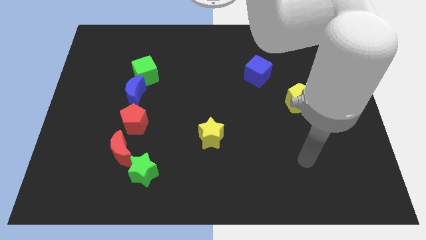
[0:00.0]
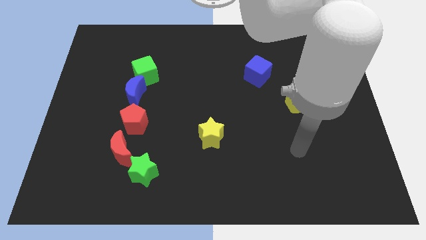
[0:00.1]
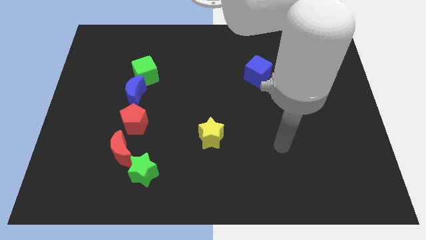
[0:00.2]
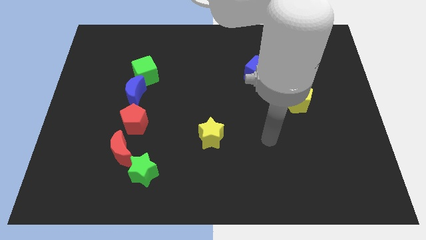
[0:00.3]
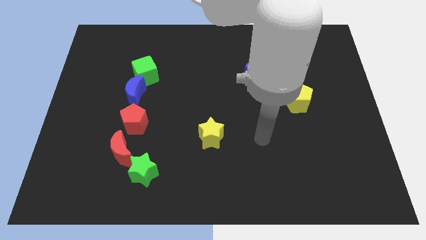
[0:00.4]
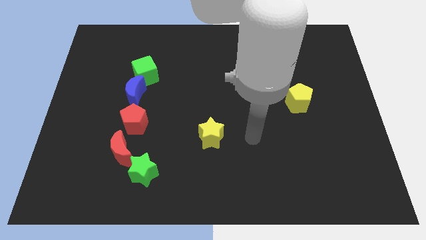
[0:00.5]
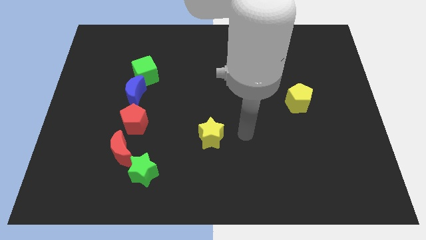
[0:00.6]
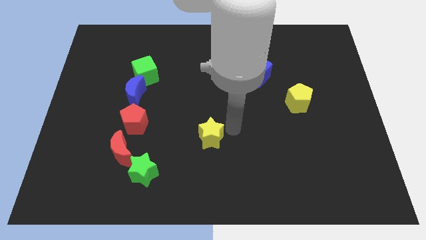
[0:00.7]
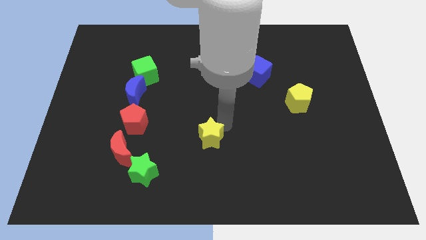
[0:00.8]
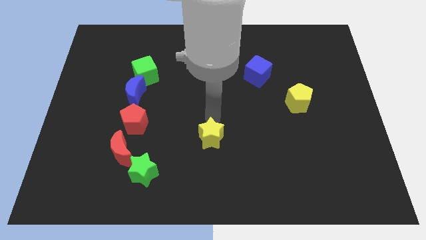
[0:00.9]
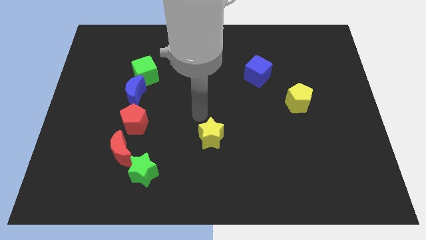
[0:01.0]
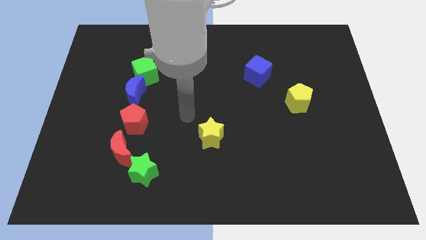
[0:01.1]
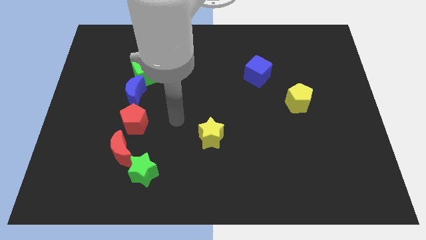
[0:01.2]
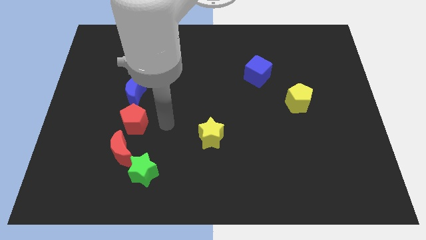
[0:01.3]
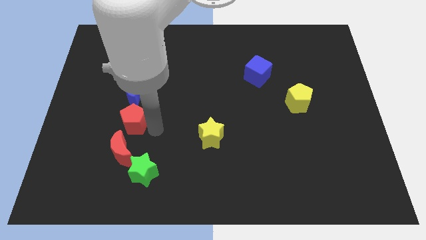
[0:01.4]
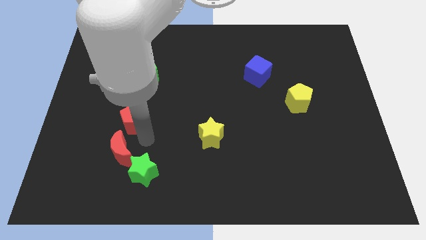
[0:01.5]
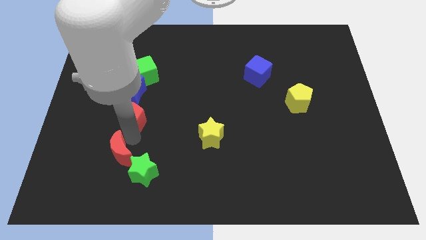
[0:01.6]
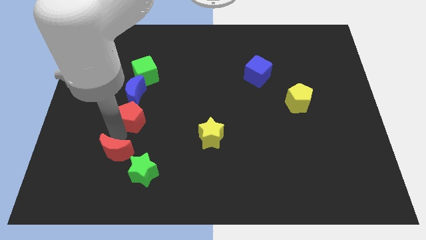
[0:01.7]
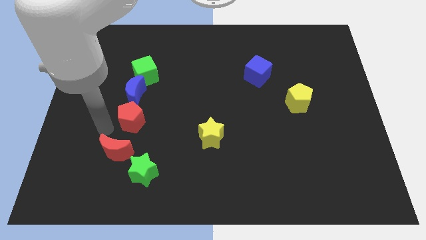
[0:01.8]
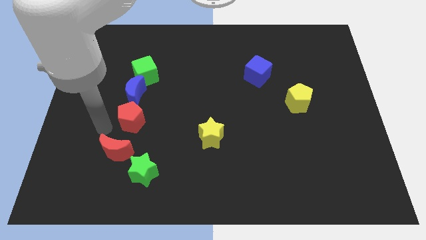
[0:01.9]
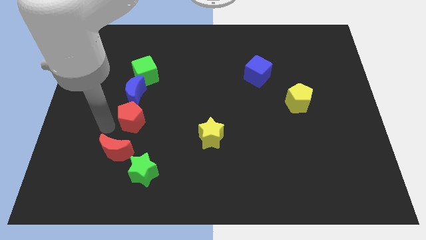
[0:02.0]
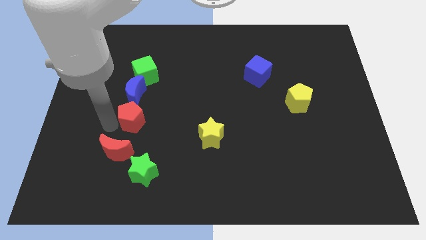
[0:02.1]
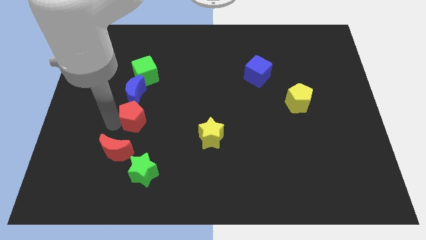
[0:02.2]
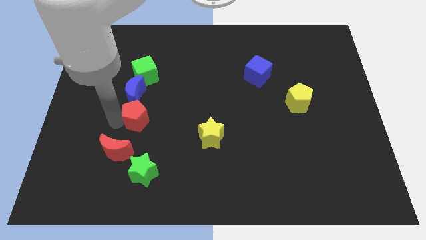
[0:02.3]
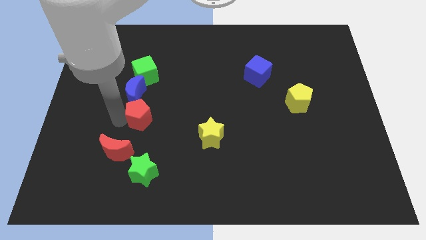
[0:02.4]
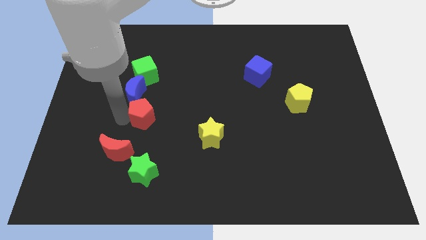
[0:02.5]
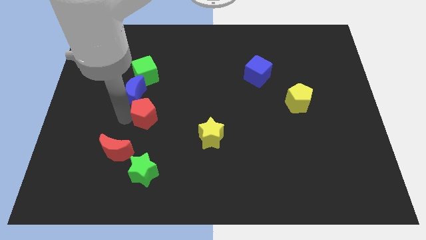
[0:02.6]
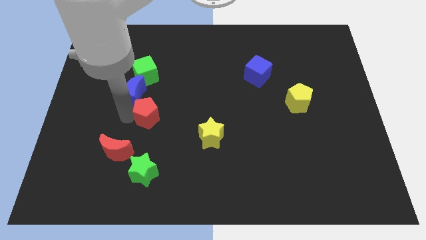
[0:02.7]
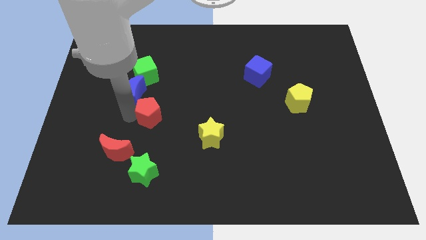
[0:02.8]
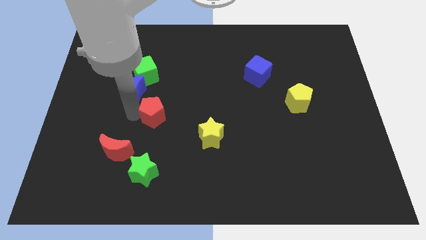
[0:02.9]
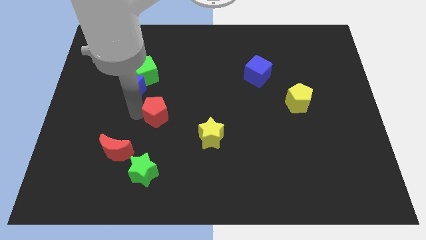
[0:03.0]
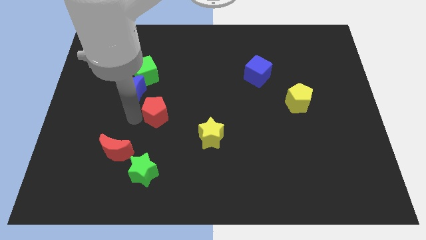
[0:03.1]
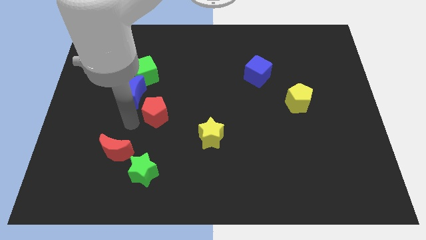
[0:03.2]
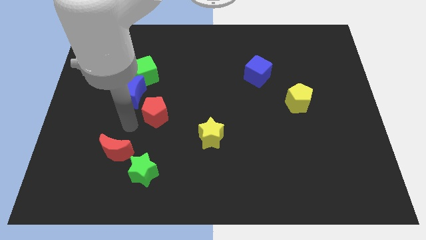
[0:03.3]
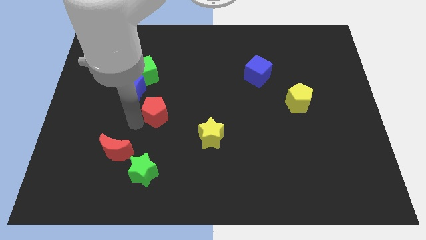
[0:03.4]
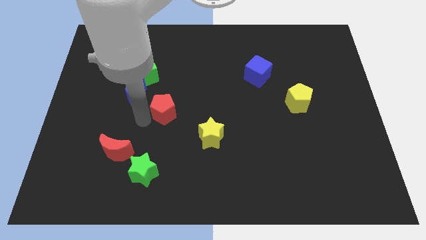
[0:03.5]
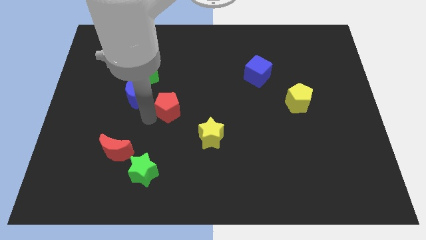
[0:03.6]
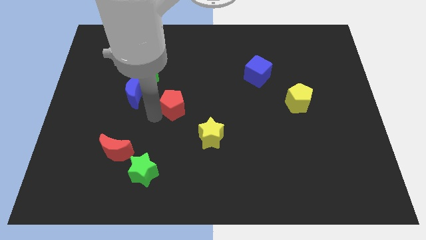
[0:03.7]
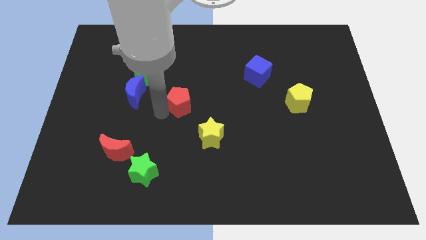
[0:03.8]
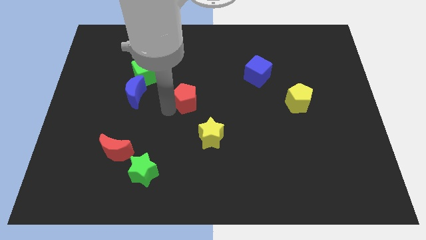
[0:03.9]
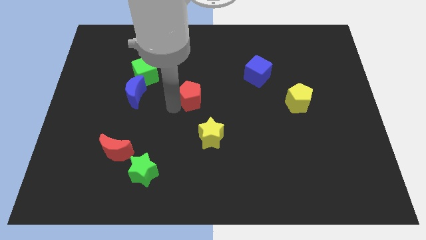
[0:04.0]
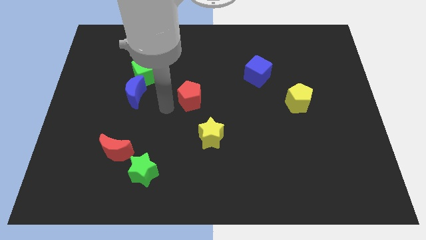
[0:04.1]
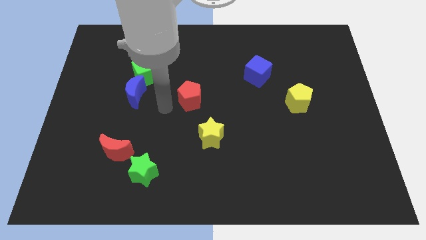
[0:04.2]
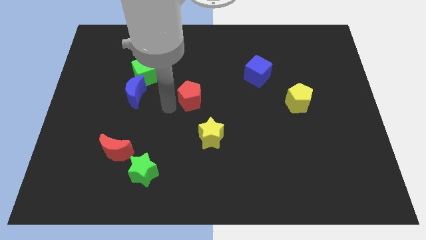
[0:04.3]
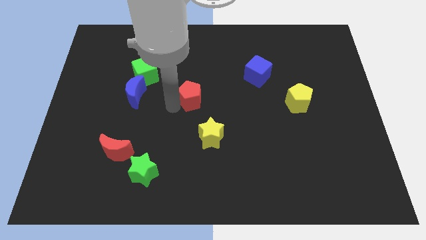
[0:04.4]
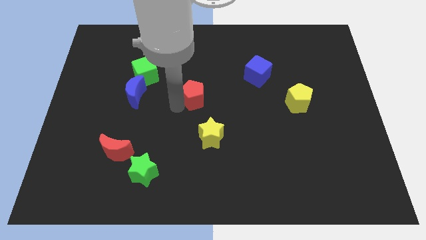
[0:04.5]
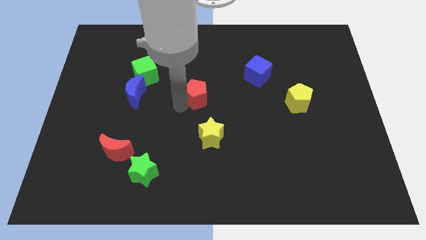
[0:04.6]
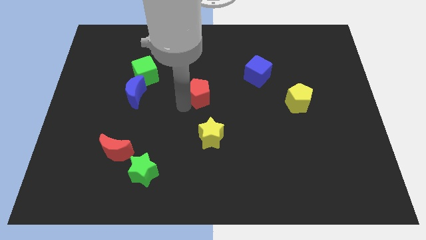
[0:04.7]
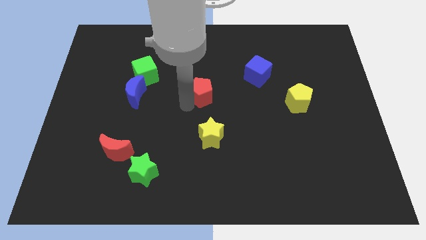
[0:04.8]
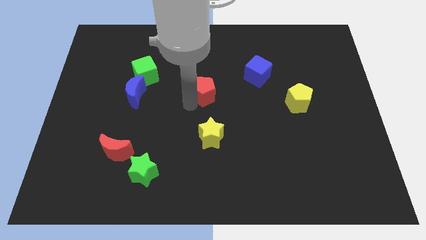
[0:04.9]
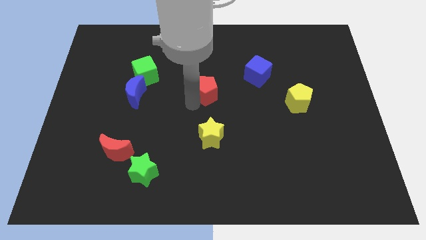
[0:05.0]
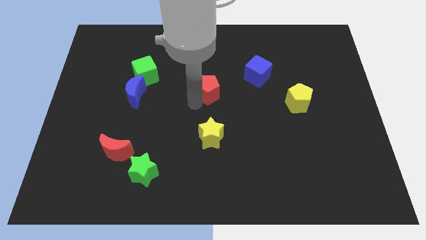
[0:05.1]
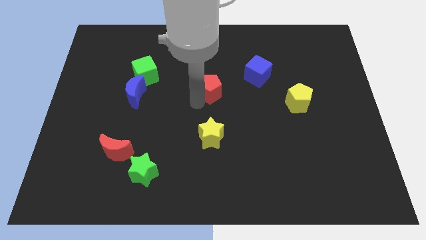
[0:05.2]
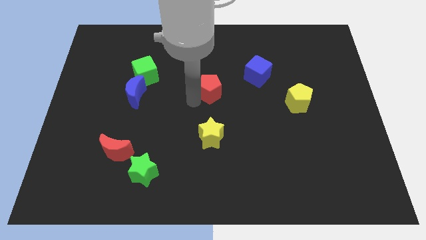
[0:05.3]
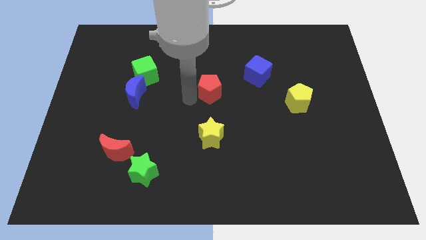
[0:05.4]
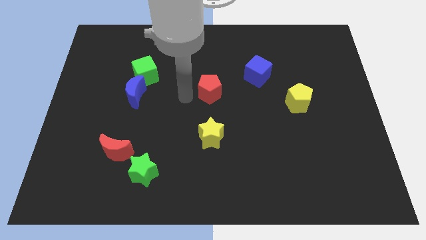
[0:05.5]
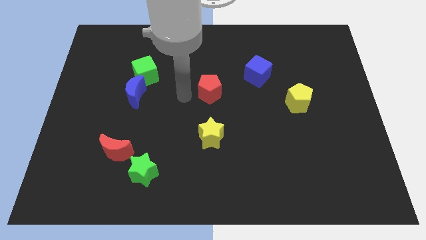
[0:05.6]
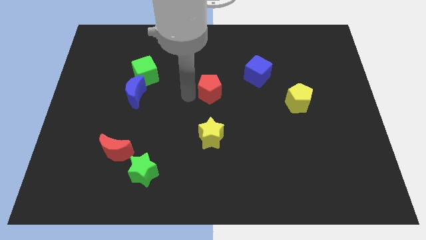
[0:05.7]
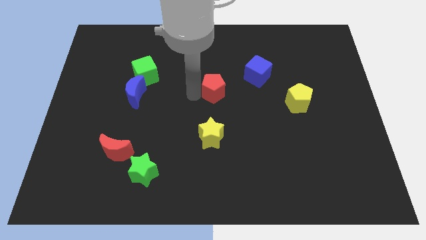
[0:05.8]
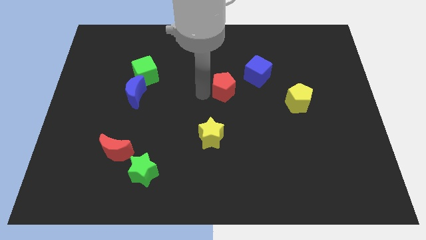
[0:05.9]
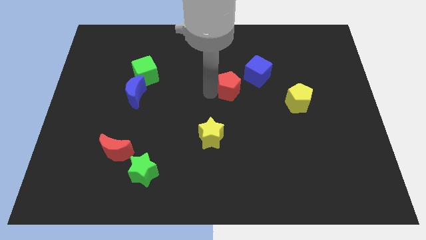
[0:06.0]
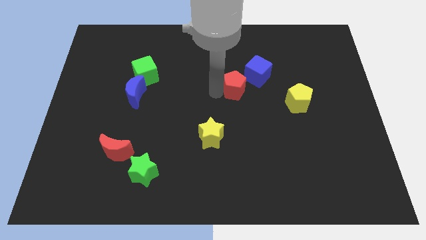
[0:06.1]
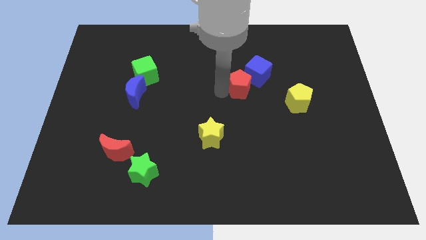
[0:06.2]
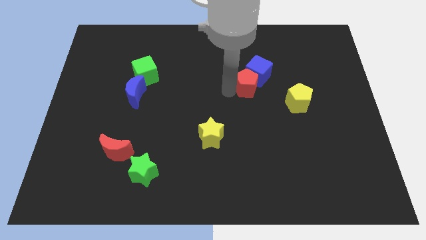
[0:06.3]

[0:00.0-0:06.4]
slide the red pentagon next to the blue cube
